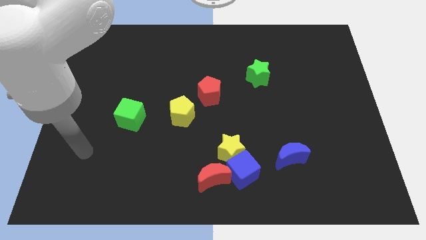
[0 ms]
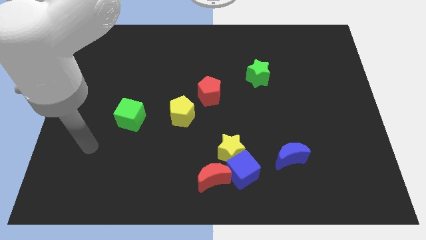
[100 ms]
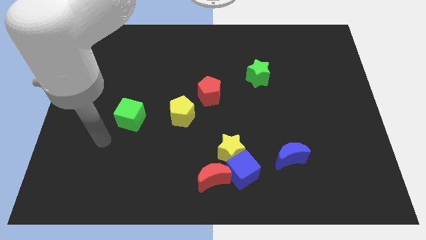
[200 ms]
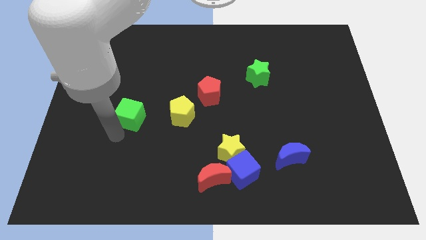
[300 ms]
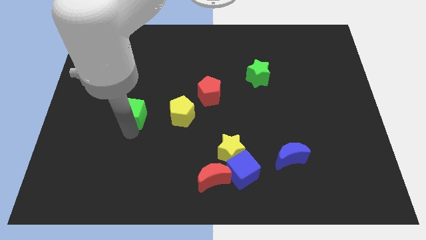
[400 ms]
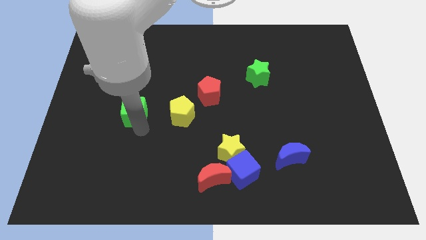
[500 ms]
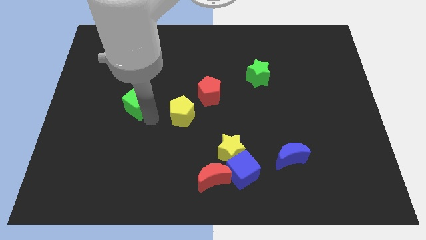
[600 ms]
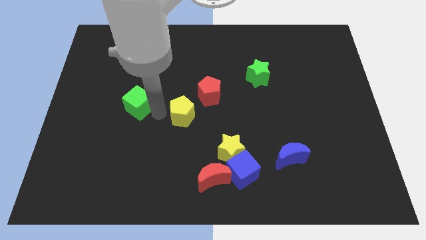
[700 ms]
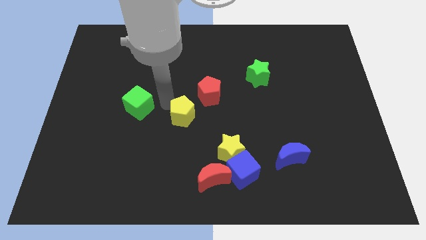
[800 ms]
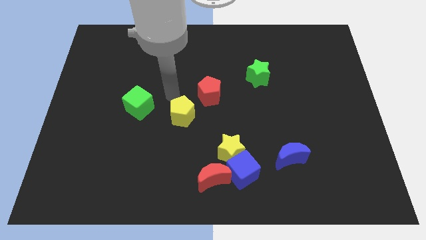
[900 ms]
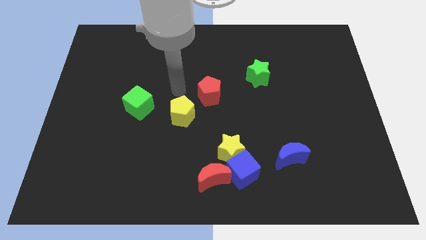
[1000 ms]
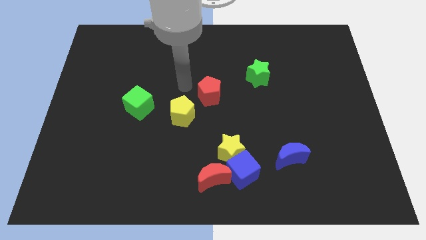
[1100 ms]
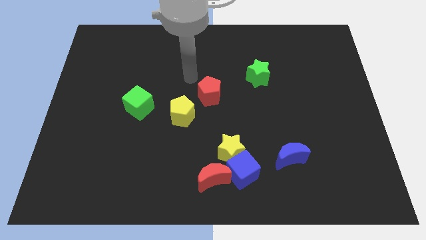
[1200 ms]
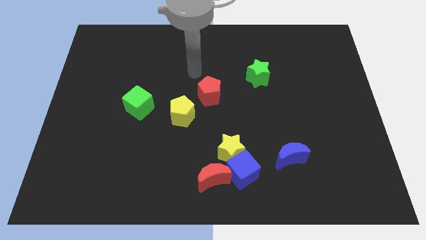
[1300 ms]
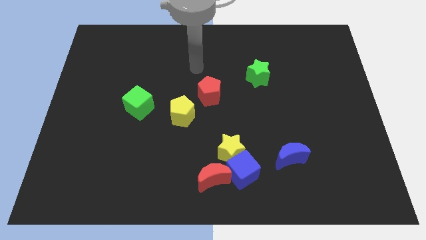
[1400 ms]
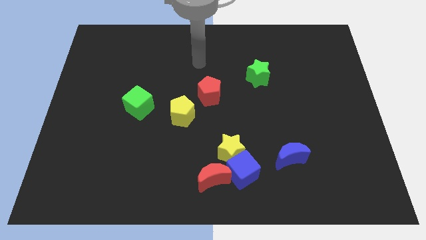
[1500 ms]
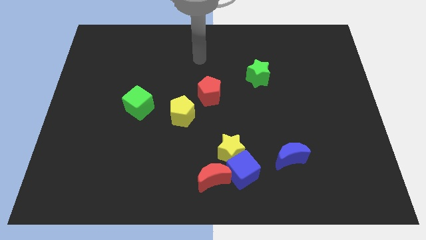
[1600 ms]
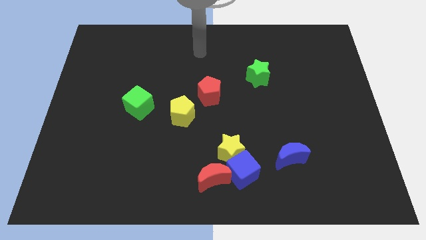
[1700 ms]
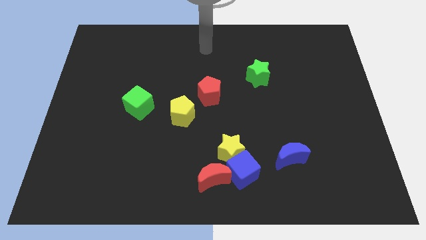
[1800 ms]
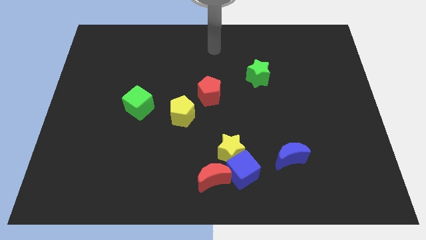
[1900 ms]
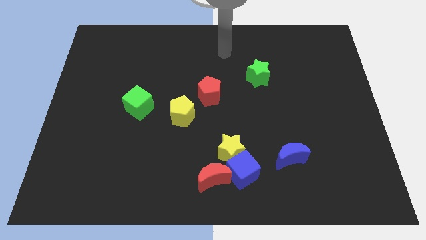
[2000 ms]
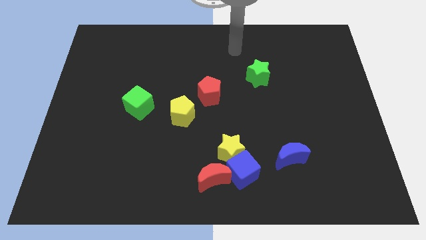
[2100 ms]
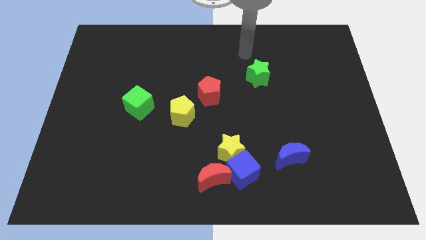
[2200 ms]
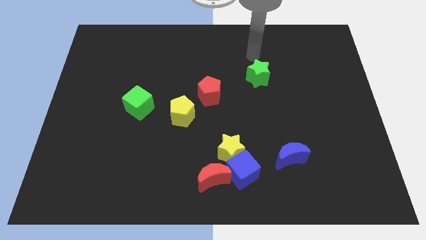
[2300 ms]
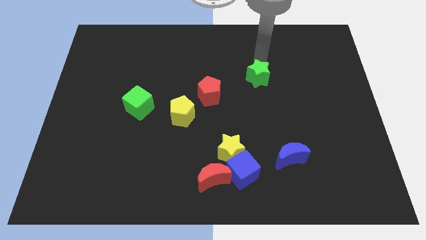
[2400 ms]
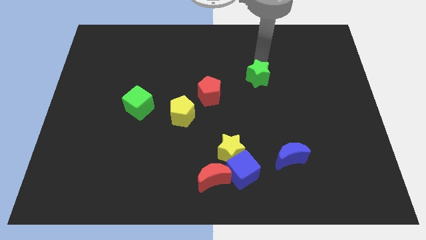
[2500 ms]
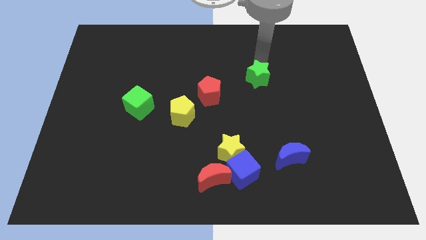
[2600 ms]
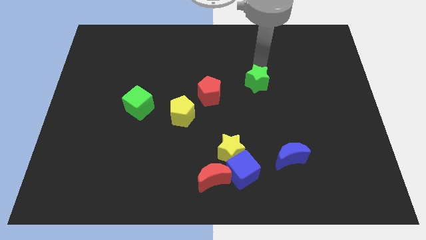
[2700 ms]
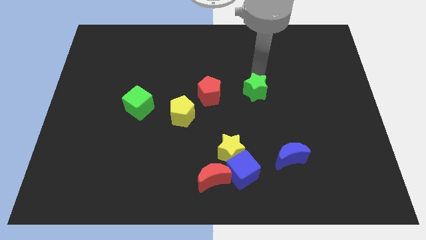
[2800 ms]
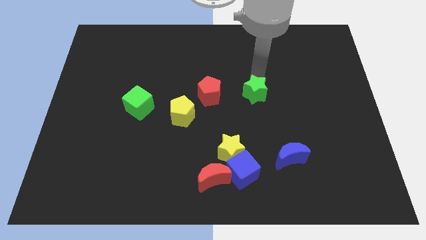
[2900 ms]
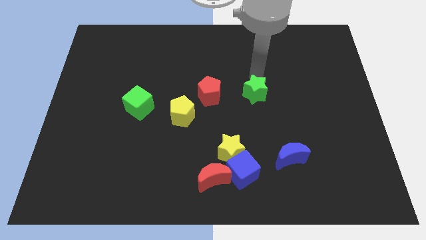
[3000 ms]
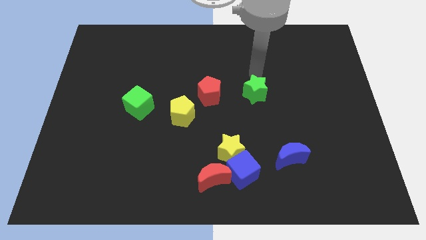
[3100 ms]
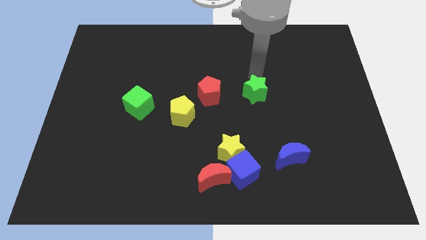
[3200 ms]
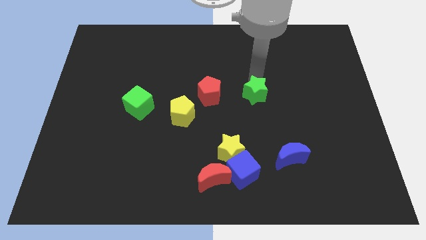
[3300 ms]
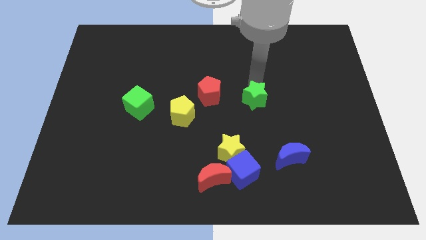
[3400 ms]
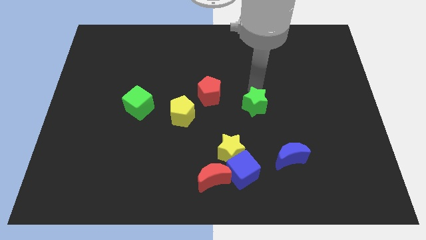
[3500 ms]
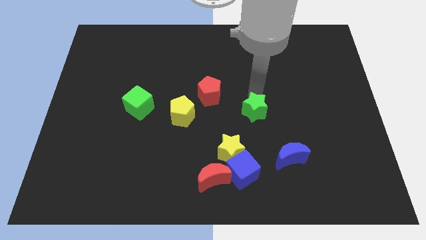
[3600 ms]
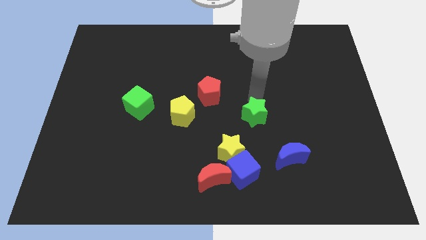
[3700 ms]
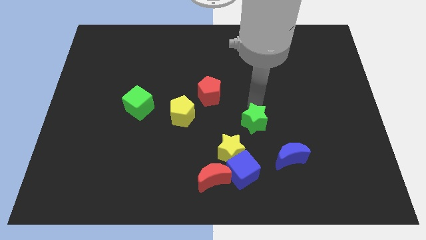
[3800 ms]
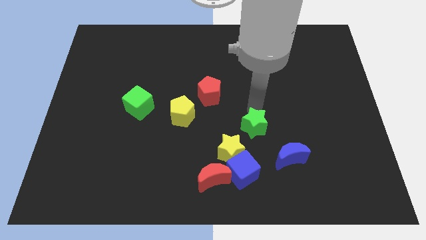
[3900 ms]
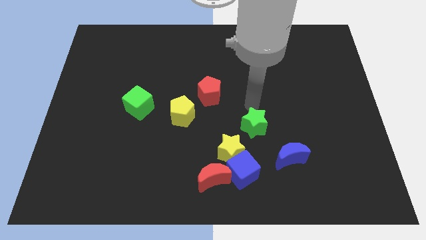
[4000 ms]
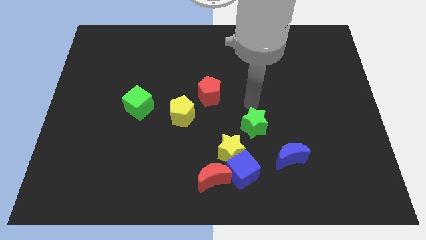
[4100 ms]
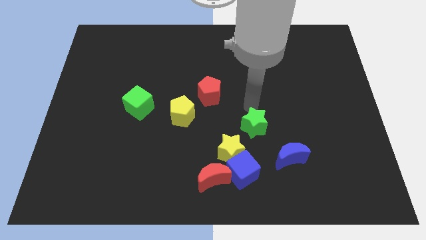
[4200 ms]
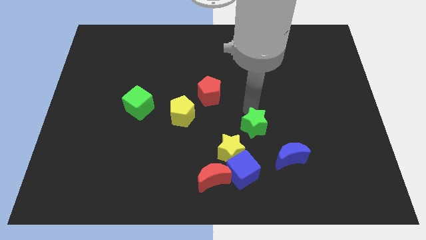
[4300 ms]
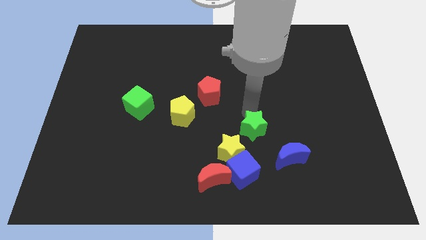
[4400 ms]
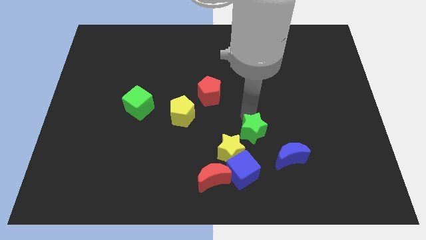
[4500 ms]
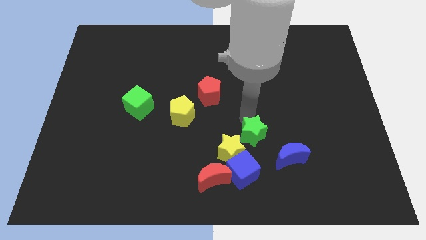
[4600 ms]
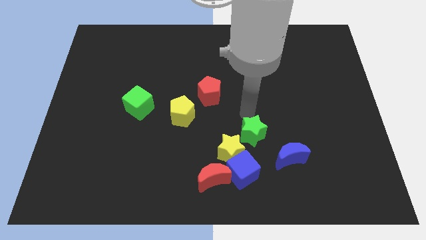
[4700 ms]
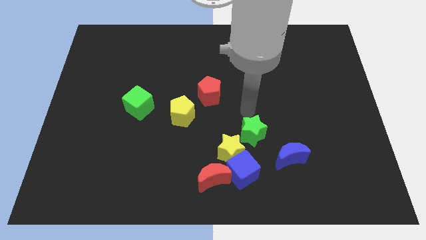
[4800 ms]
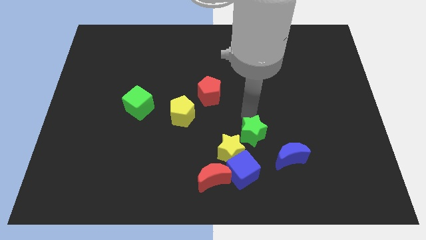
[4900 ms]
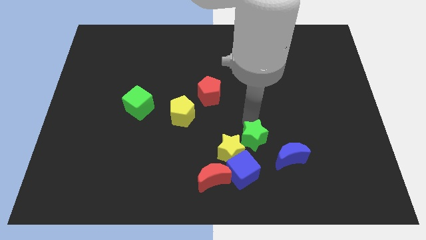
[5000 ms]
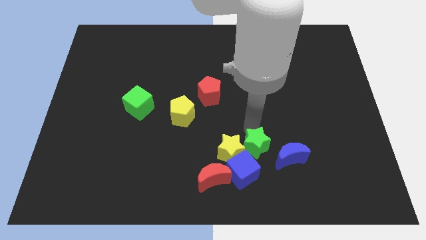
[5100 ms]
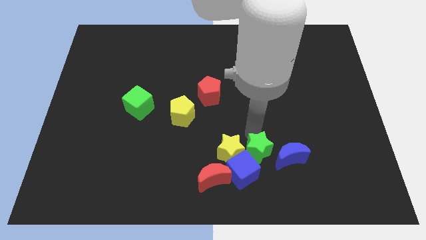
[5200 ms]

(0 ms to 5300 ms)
slide the green star close to the blue cube
